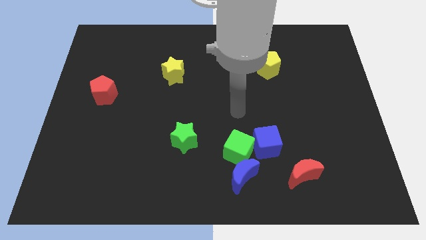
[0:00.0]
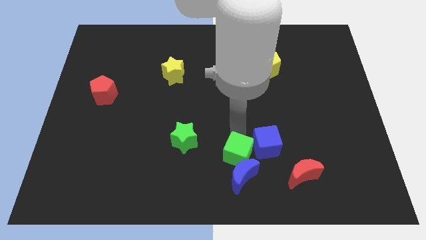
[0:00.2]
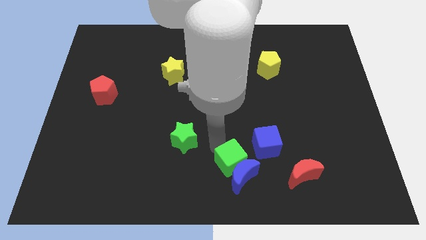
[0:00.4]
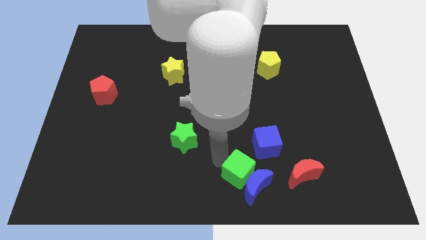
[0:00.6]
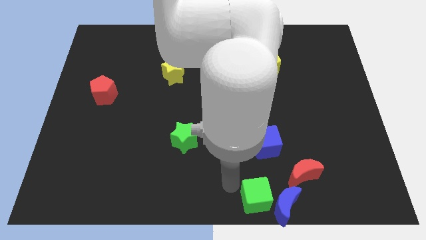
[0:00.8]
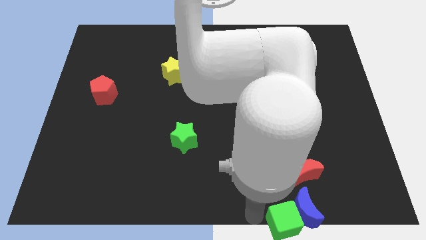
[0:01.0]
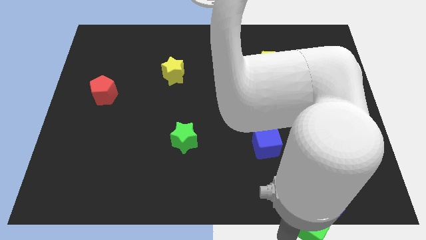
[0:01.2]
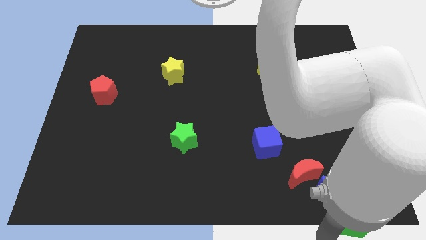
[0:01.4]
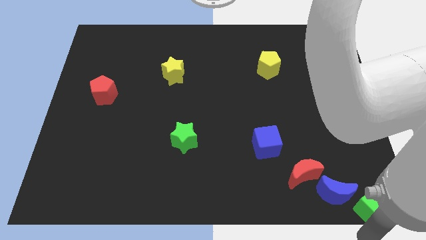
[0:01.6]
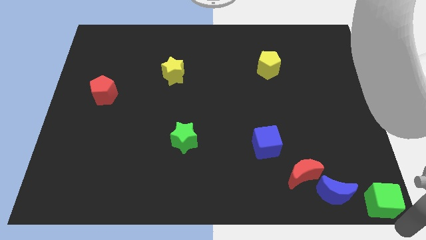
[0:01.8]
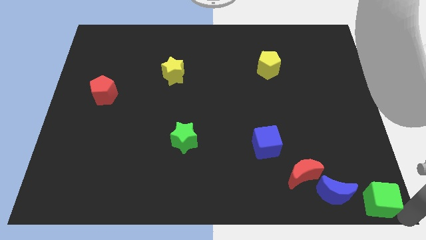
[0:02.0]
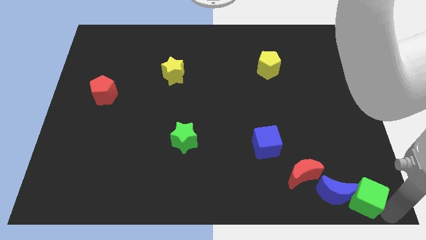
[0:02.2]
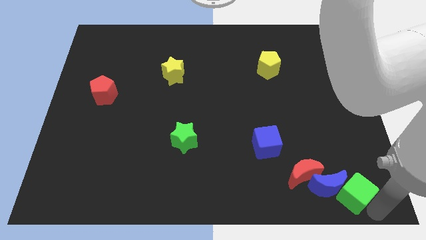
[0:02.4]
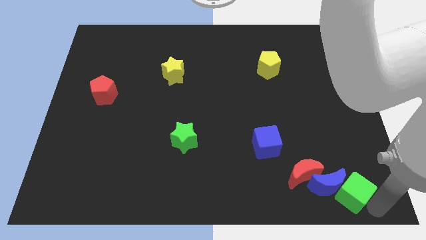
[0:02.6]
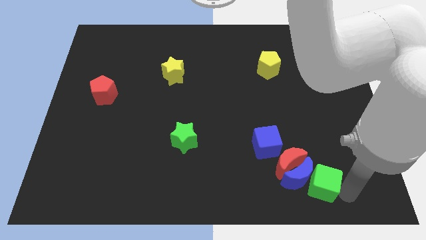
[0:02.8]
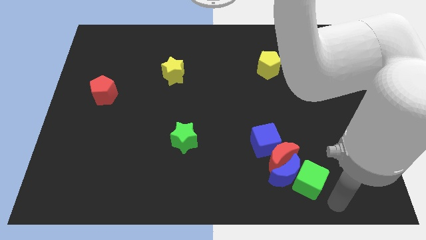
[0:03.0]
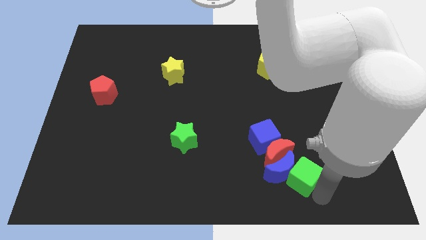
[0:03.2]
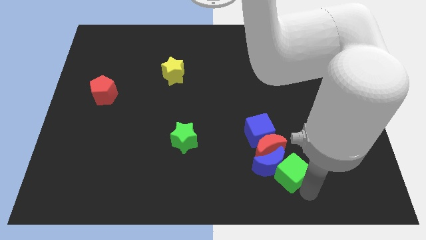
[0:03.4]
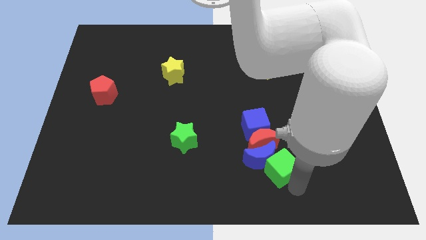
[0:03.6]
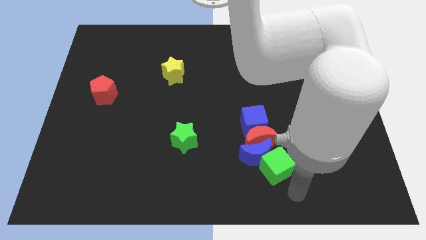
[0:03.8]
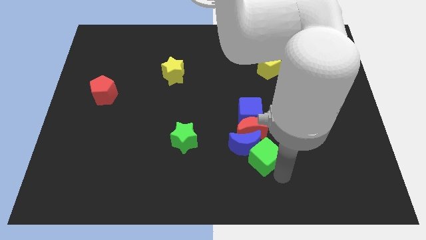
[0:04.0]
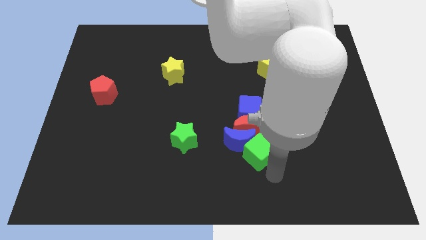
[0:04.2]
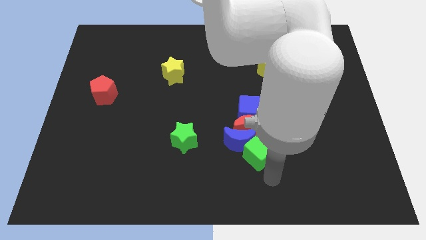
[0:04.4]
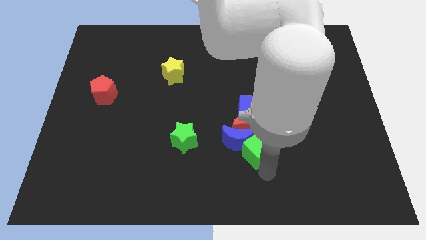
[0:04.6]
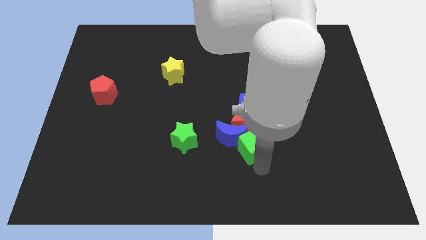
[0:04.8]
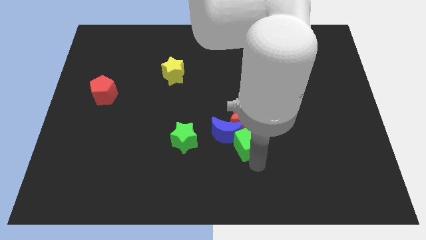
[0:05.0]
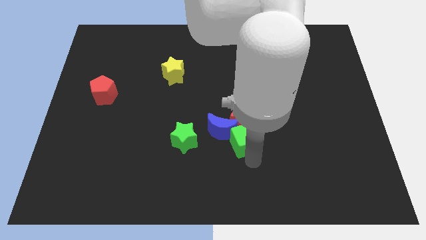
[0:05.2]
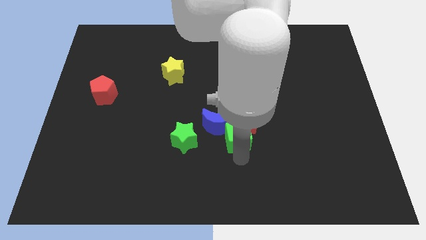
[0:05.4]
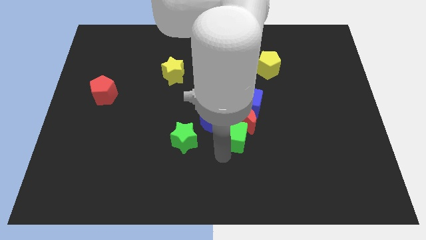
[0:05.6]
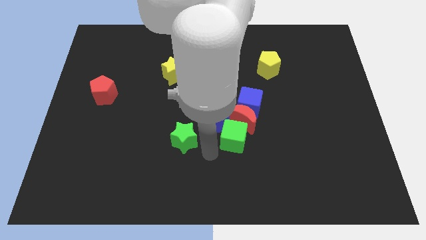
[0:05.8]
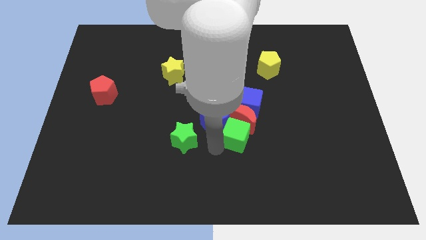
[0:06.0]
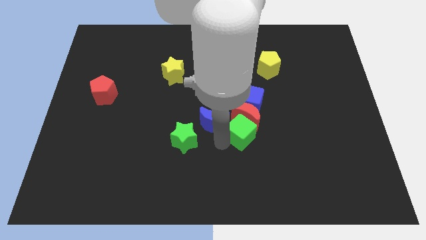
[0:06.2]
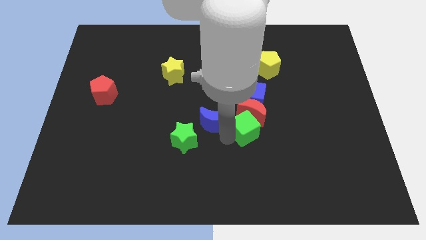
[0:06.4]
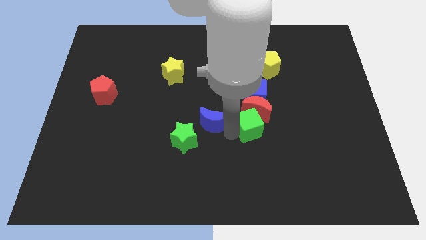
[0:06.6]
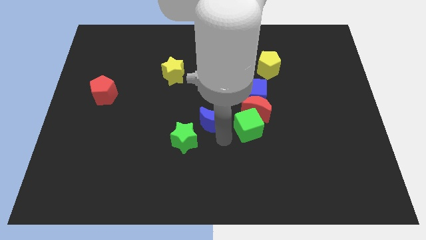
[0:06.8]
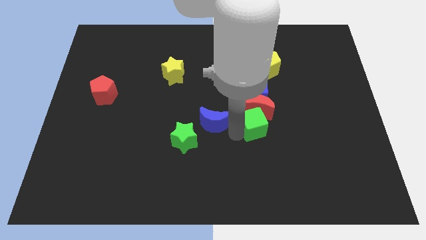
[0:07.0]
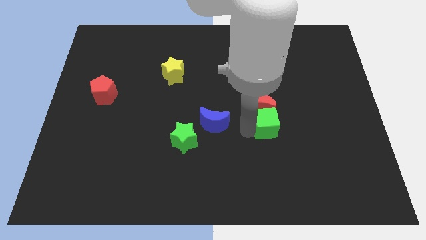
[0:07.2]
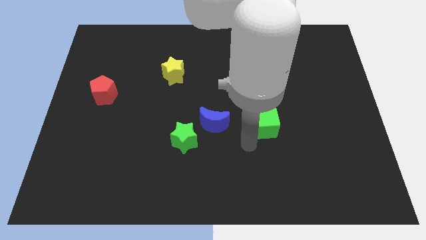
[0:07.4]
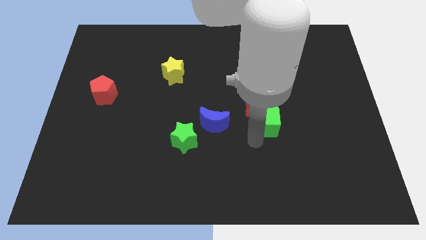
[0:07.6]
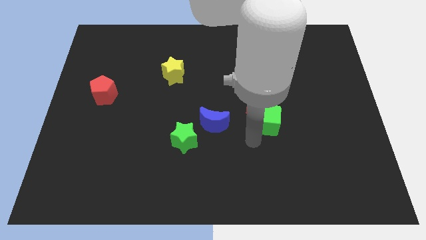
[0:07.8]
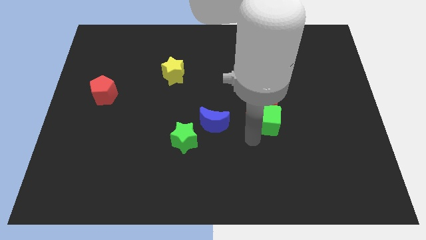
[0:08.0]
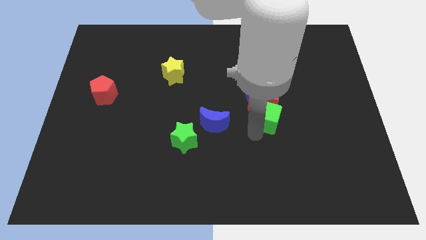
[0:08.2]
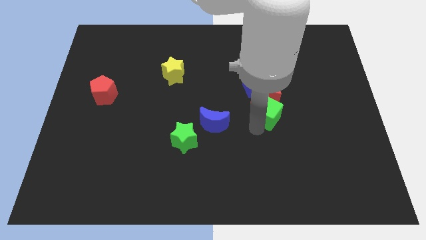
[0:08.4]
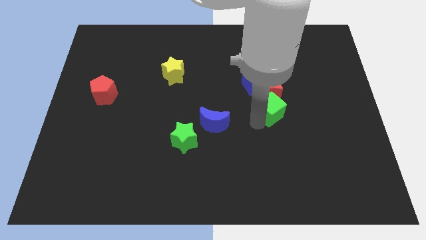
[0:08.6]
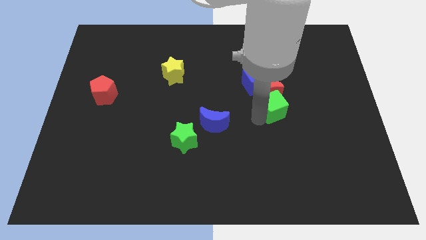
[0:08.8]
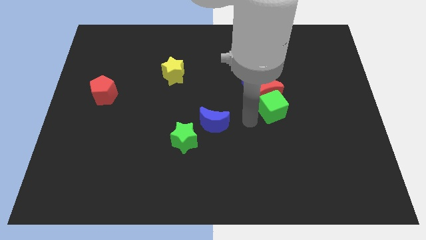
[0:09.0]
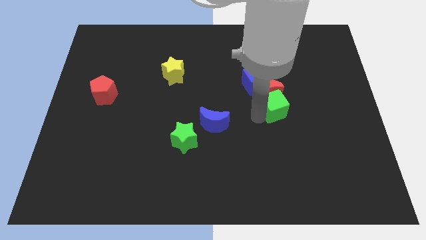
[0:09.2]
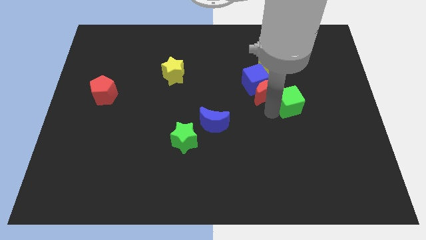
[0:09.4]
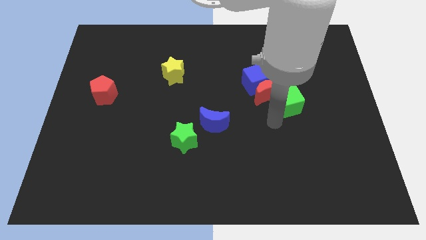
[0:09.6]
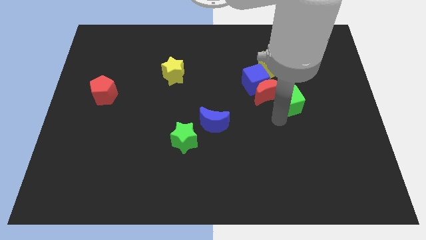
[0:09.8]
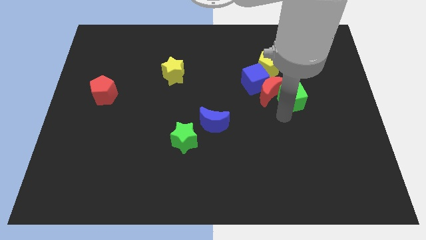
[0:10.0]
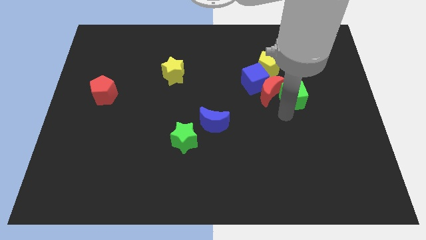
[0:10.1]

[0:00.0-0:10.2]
push the green cube up and right diagonally

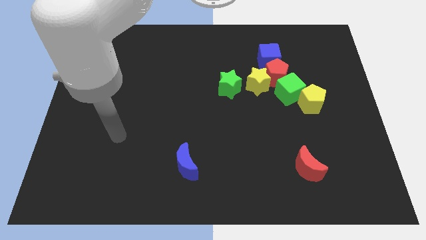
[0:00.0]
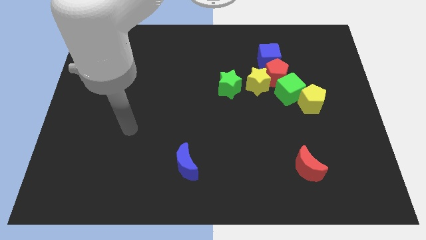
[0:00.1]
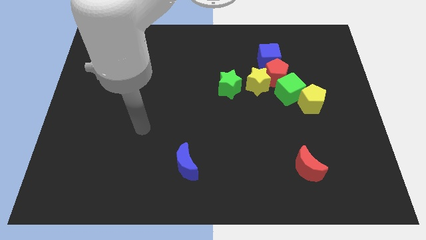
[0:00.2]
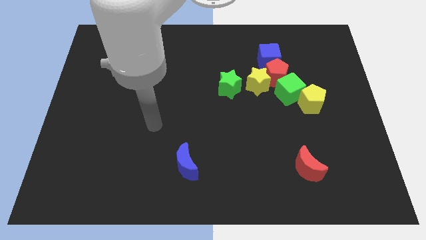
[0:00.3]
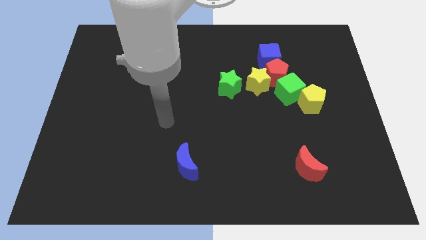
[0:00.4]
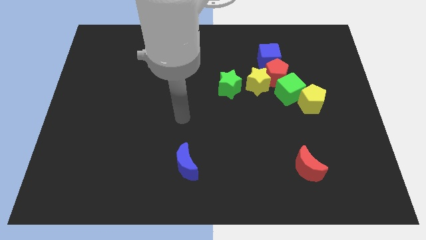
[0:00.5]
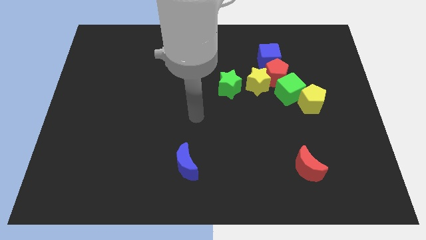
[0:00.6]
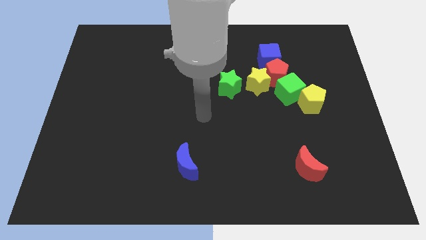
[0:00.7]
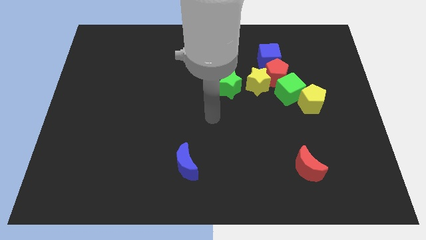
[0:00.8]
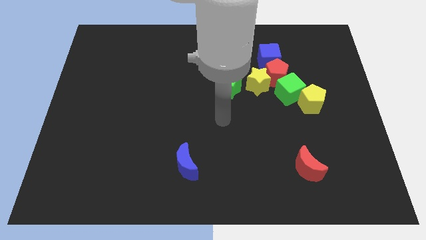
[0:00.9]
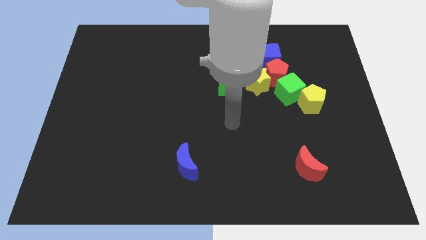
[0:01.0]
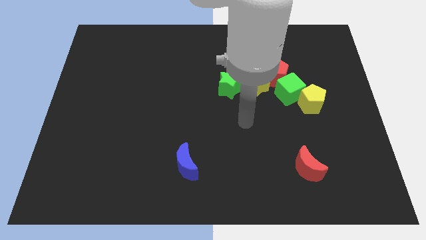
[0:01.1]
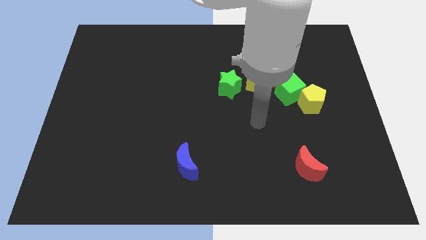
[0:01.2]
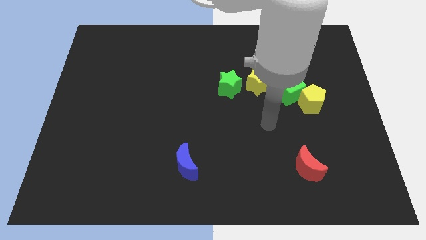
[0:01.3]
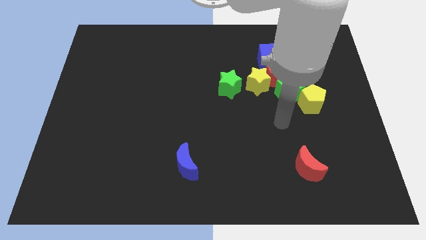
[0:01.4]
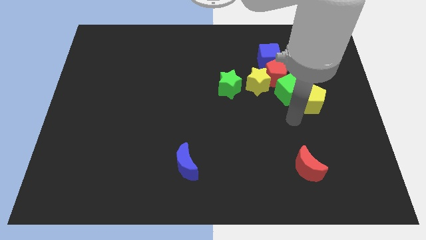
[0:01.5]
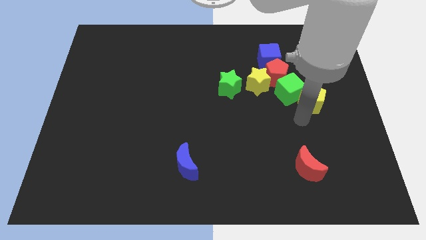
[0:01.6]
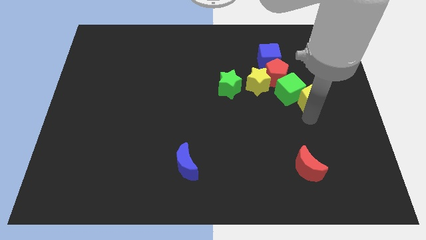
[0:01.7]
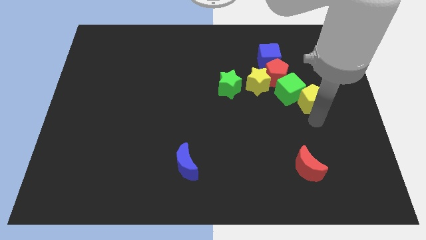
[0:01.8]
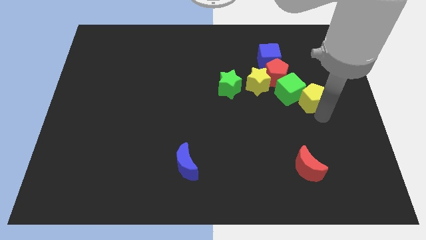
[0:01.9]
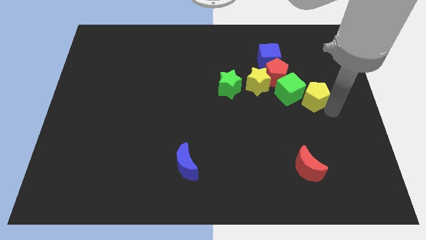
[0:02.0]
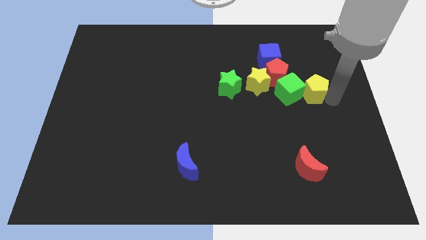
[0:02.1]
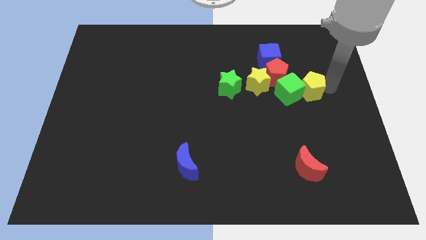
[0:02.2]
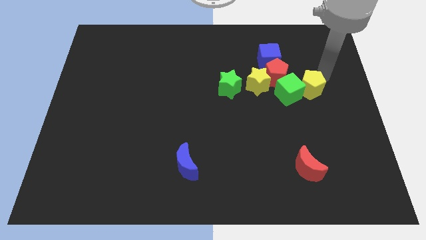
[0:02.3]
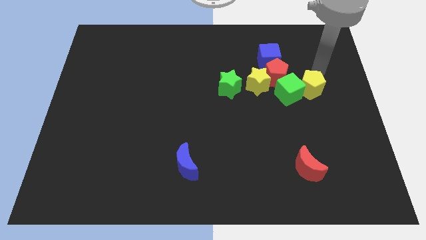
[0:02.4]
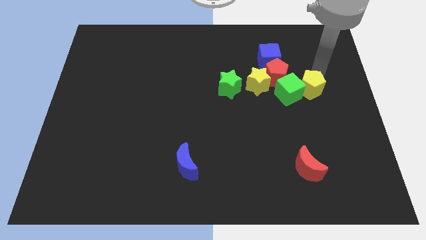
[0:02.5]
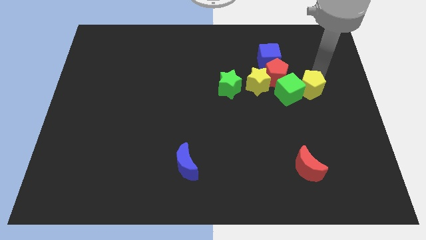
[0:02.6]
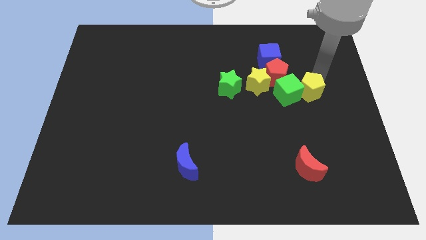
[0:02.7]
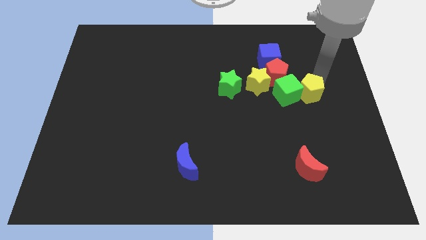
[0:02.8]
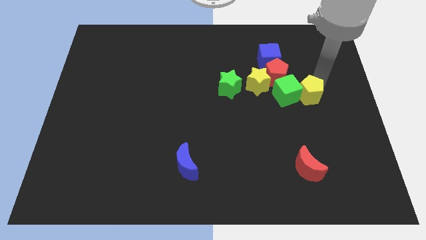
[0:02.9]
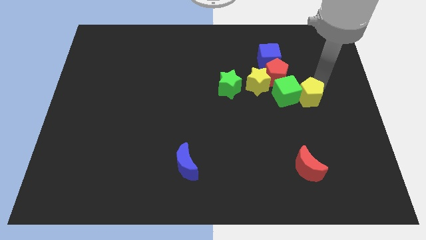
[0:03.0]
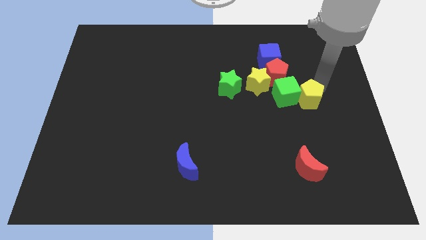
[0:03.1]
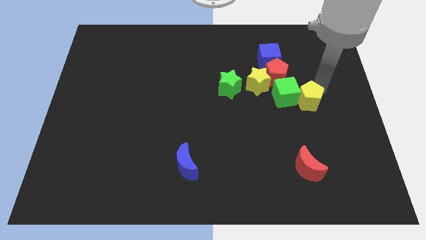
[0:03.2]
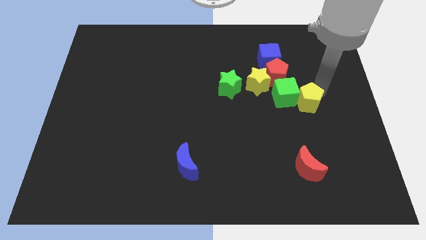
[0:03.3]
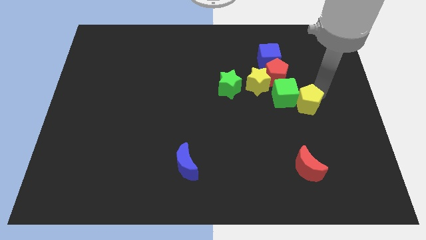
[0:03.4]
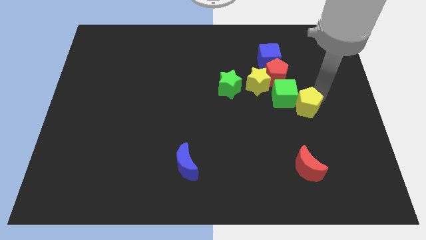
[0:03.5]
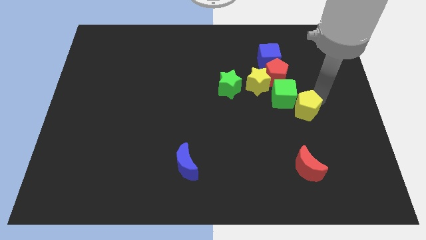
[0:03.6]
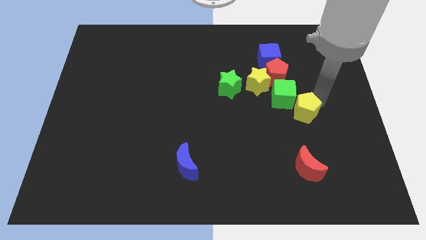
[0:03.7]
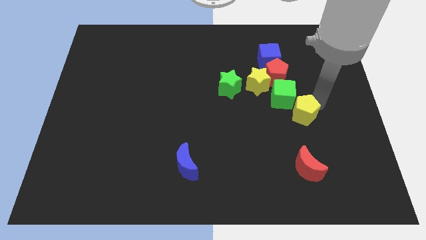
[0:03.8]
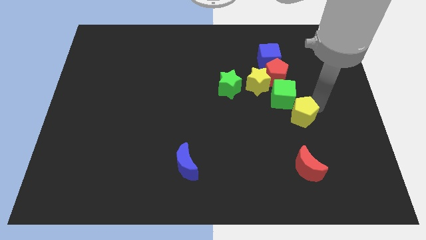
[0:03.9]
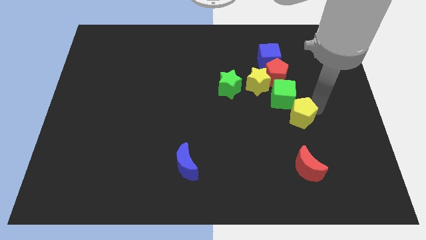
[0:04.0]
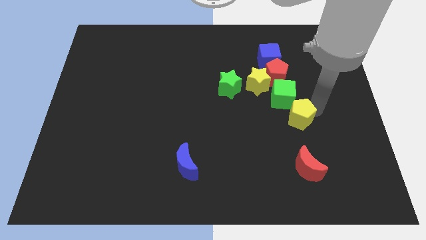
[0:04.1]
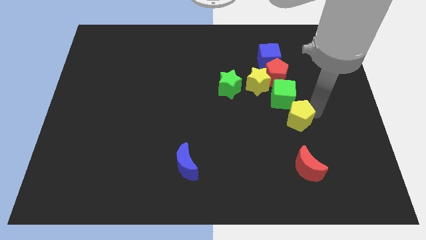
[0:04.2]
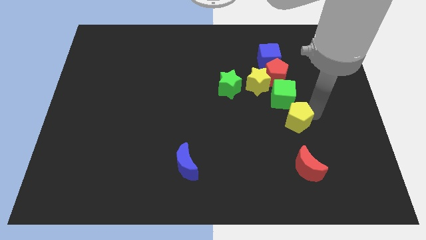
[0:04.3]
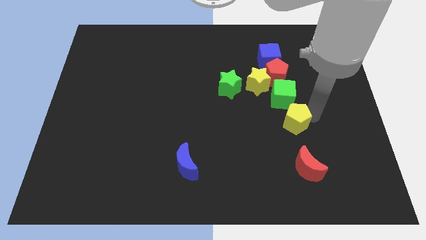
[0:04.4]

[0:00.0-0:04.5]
move the yellow pentagon a little bit diagonally down and left
